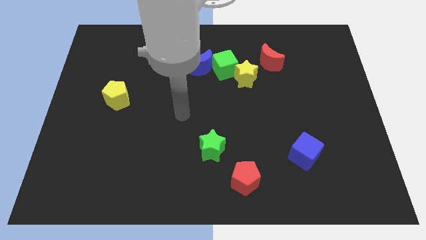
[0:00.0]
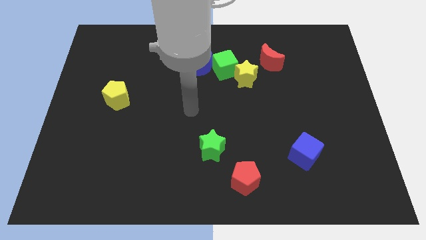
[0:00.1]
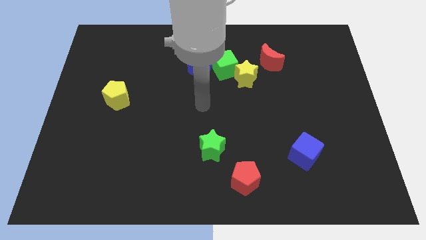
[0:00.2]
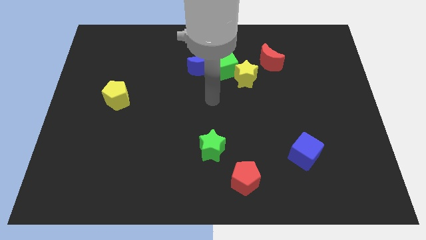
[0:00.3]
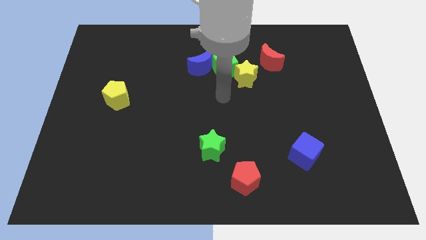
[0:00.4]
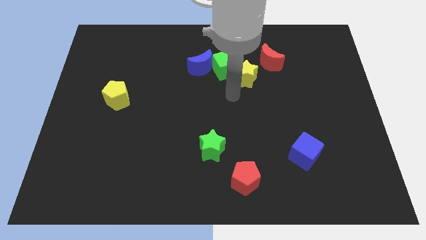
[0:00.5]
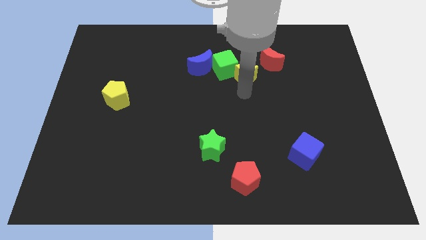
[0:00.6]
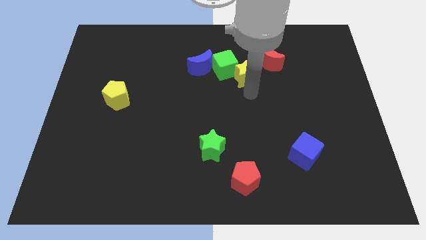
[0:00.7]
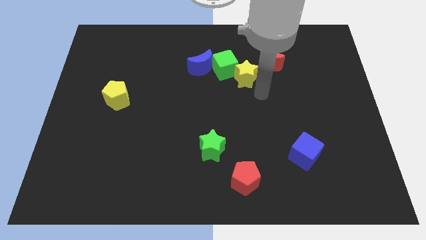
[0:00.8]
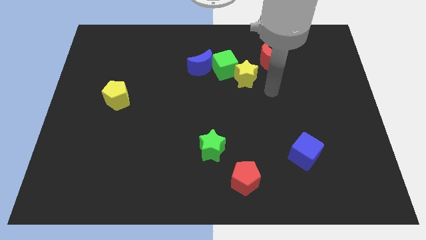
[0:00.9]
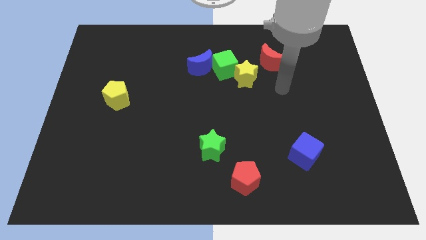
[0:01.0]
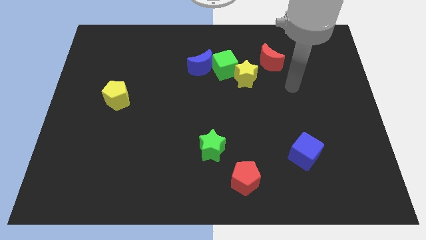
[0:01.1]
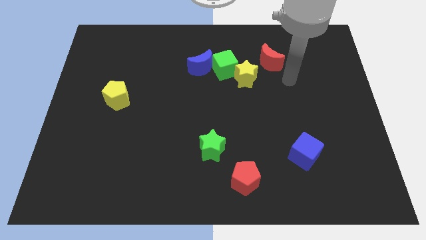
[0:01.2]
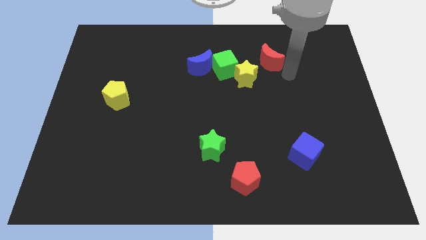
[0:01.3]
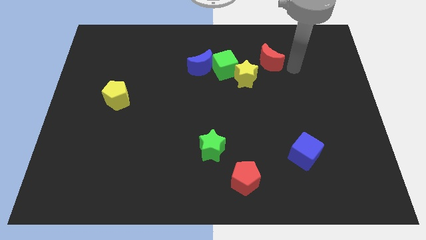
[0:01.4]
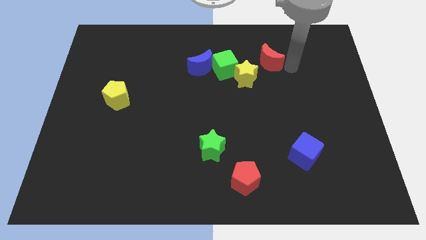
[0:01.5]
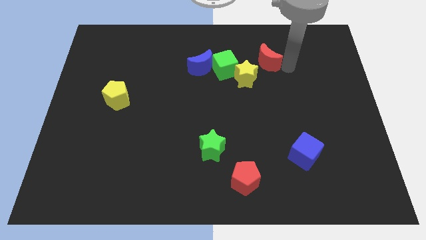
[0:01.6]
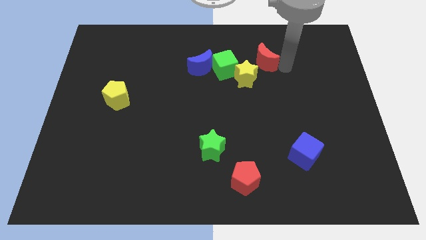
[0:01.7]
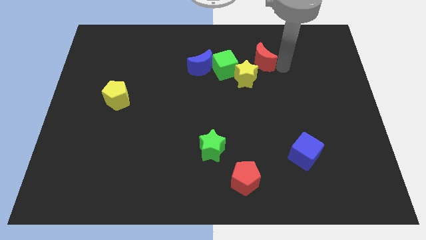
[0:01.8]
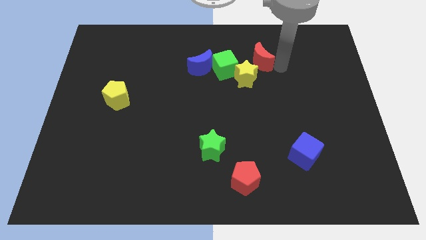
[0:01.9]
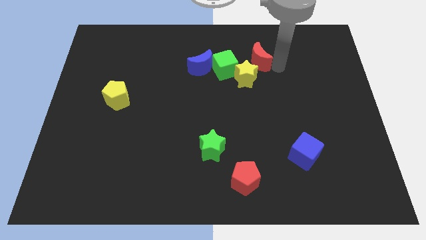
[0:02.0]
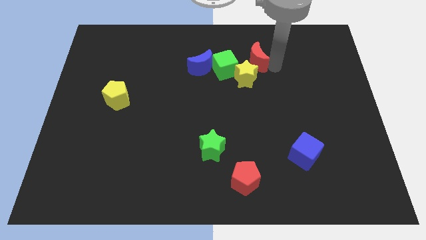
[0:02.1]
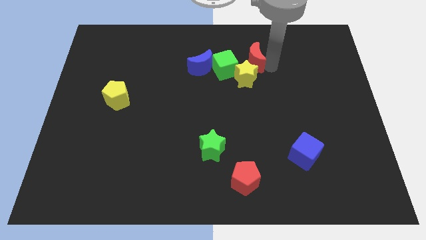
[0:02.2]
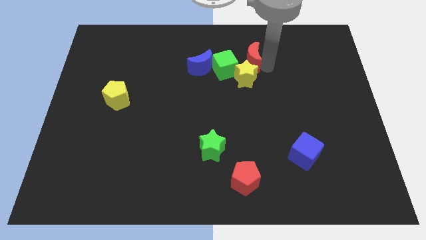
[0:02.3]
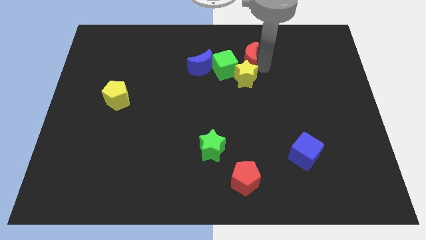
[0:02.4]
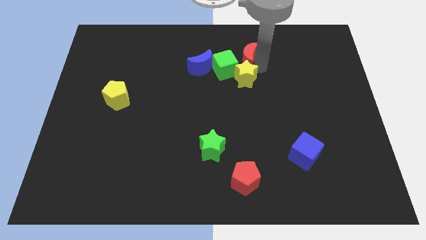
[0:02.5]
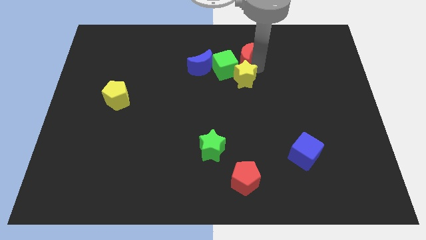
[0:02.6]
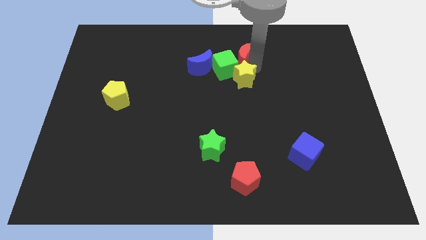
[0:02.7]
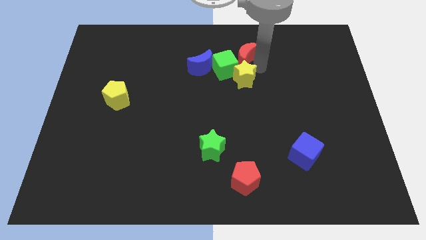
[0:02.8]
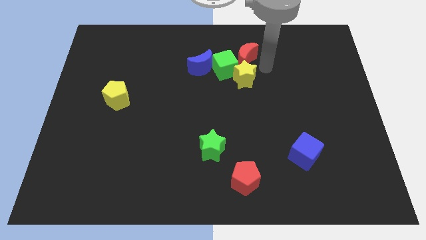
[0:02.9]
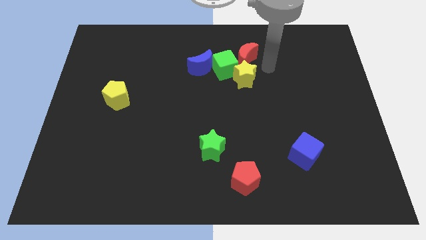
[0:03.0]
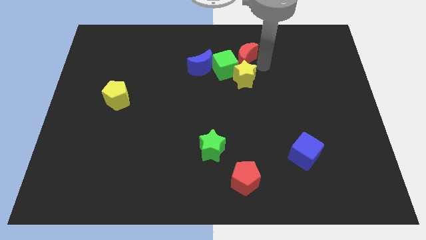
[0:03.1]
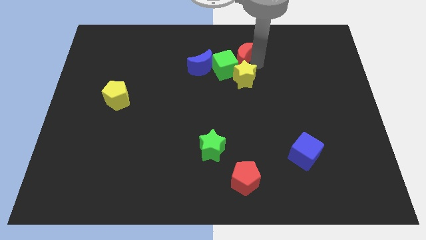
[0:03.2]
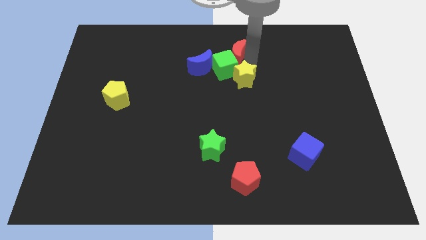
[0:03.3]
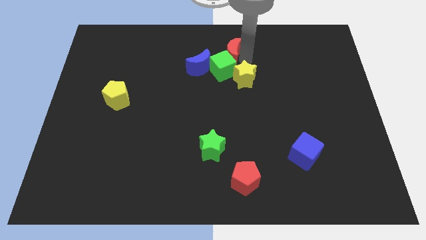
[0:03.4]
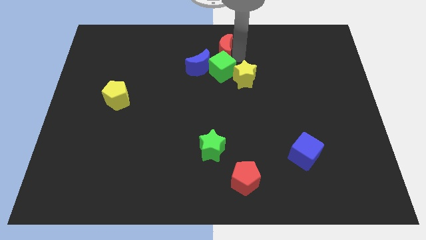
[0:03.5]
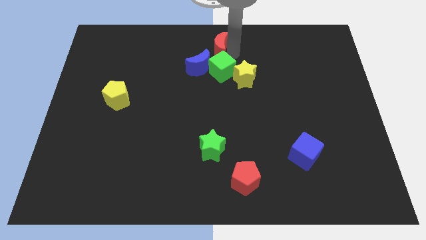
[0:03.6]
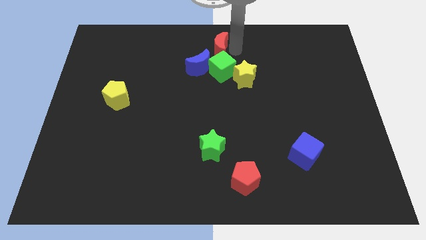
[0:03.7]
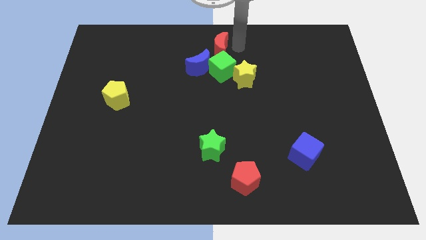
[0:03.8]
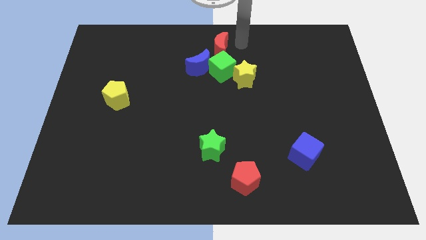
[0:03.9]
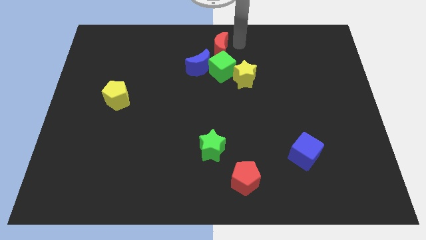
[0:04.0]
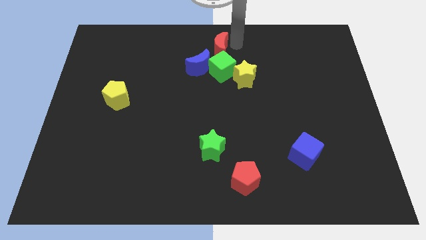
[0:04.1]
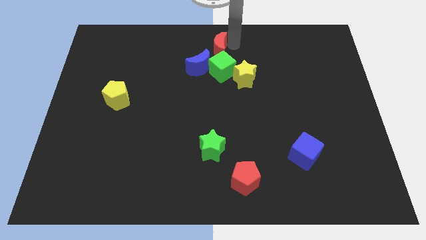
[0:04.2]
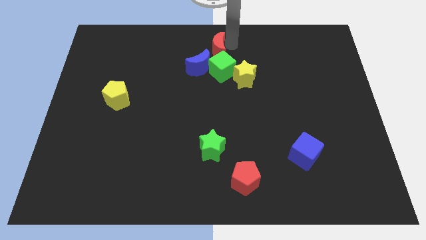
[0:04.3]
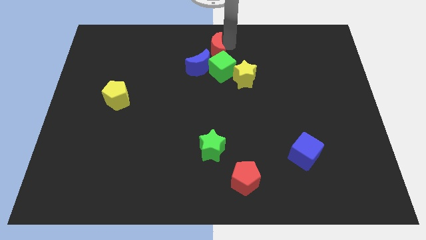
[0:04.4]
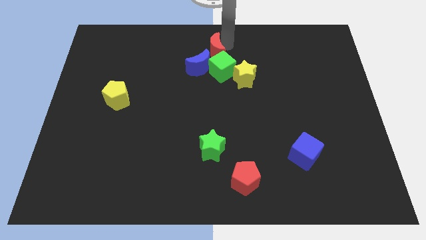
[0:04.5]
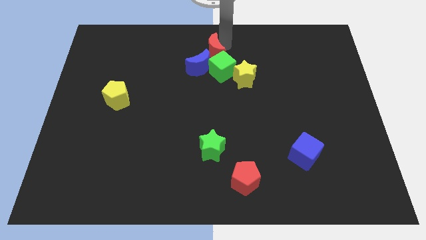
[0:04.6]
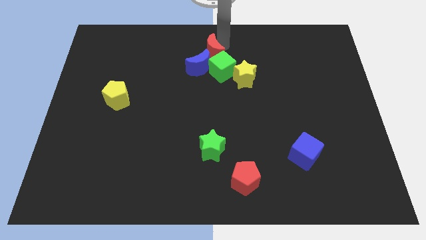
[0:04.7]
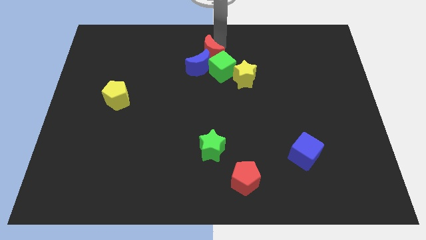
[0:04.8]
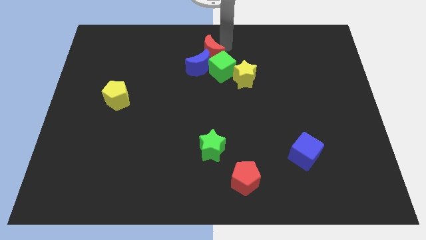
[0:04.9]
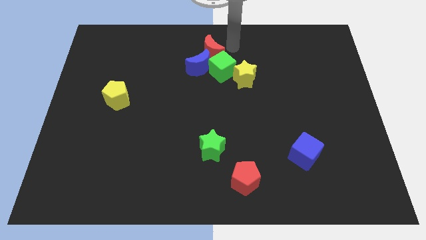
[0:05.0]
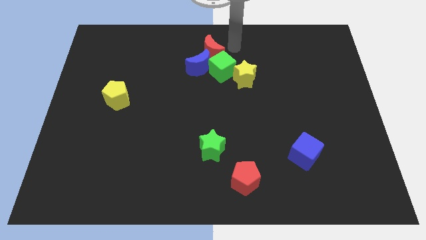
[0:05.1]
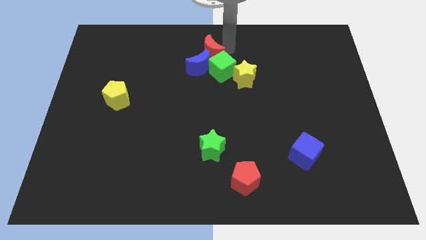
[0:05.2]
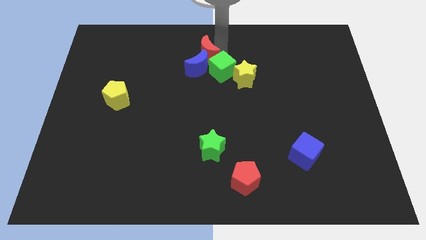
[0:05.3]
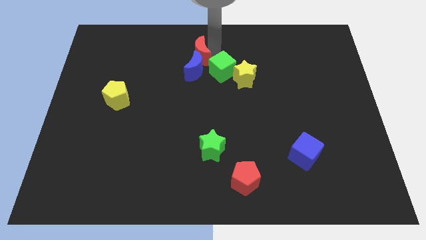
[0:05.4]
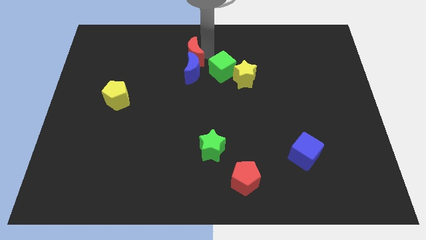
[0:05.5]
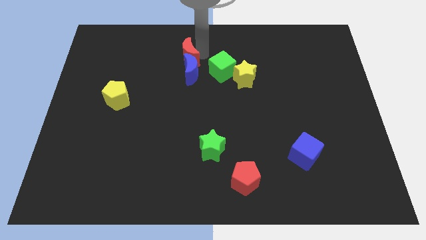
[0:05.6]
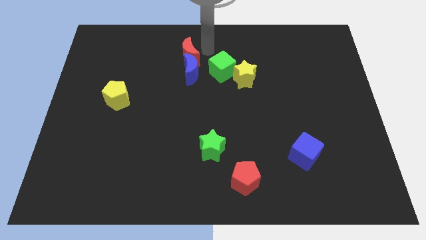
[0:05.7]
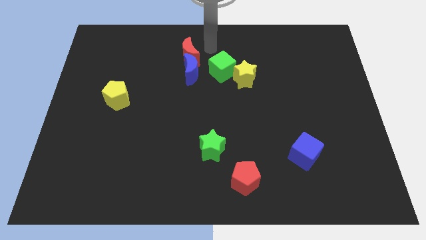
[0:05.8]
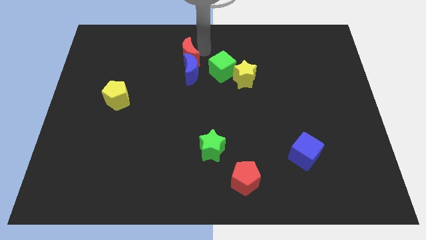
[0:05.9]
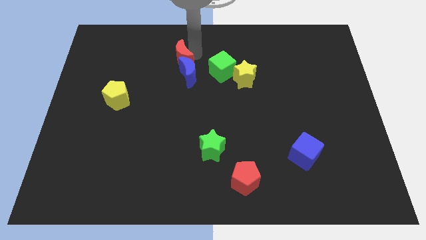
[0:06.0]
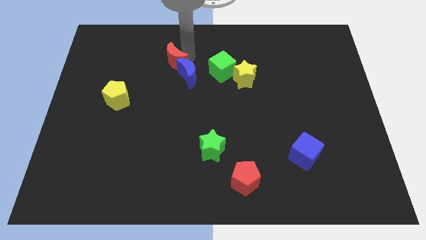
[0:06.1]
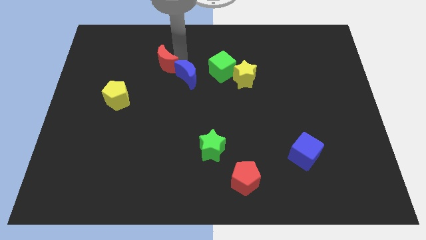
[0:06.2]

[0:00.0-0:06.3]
push the red moon left of the blue moon
